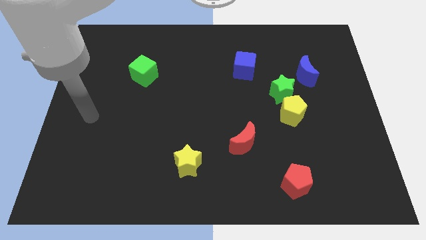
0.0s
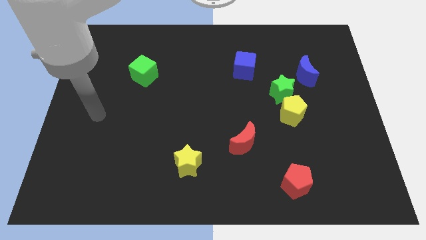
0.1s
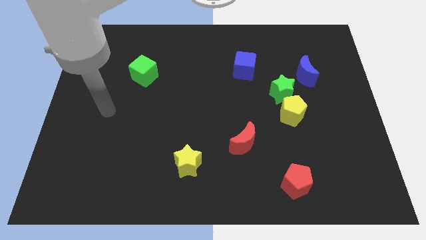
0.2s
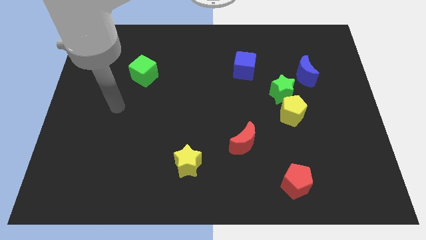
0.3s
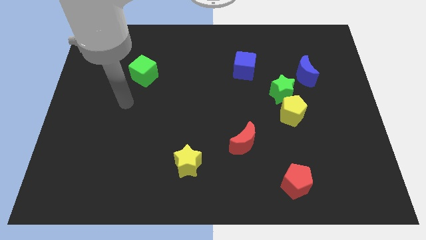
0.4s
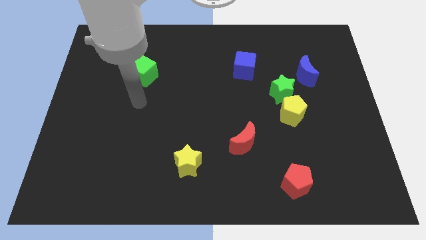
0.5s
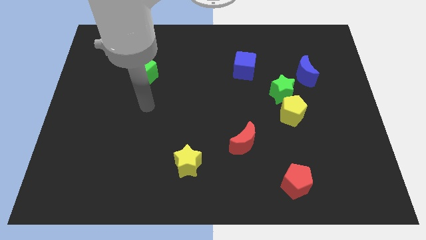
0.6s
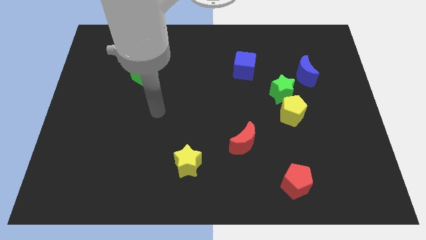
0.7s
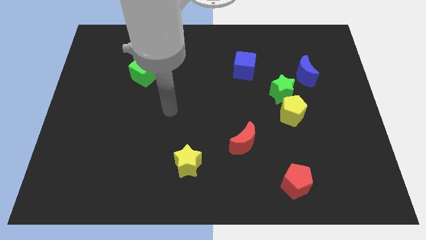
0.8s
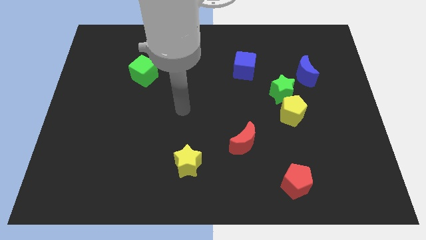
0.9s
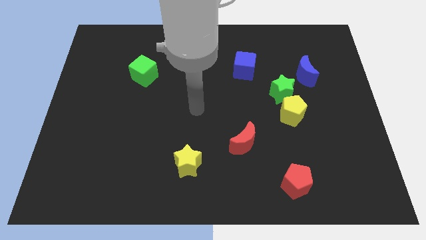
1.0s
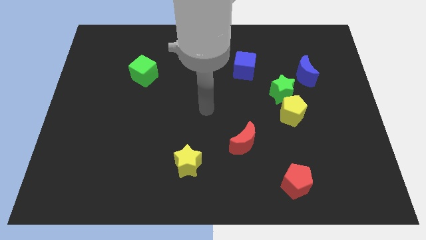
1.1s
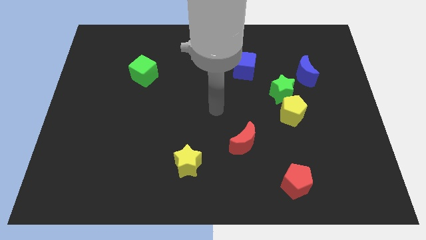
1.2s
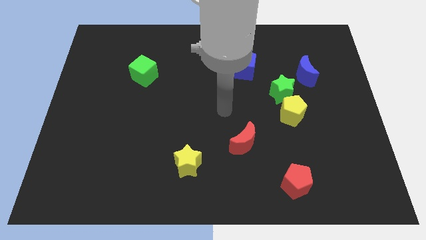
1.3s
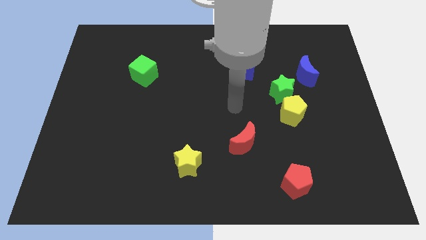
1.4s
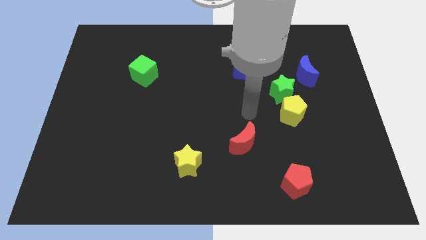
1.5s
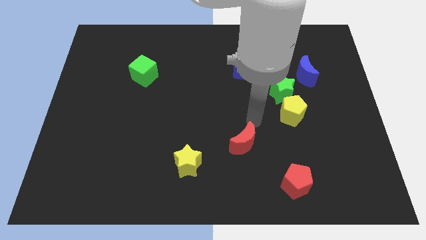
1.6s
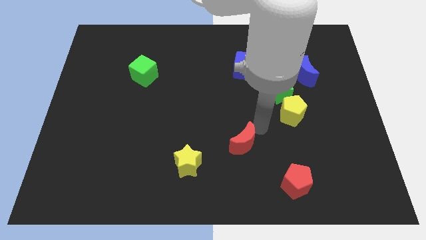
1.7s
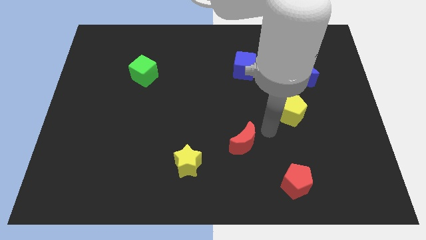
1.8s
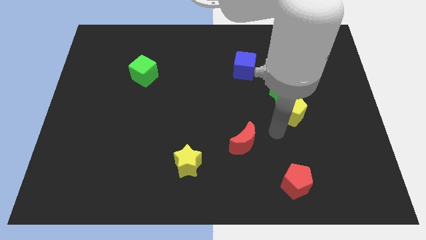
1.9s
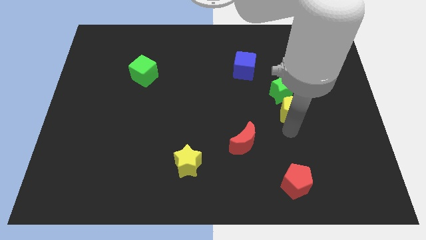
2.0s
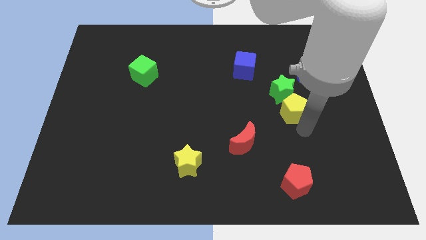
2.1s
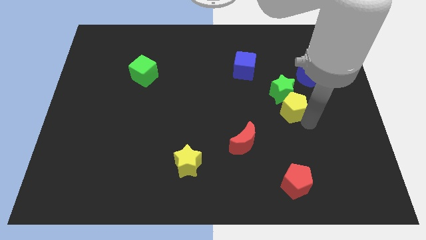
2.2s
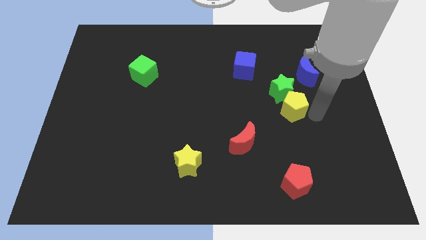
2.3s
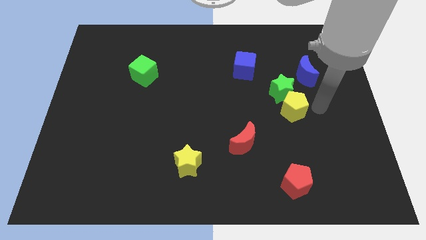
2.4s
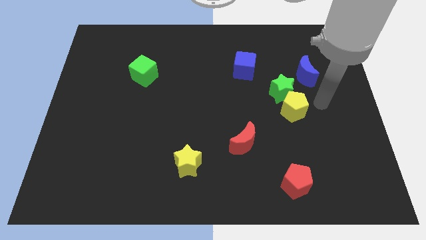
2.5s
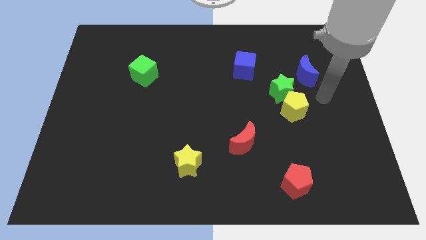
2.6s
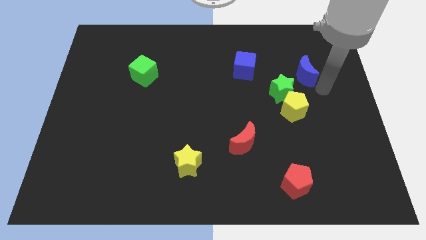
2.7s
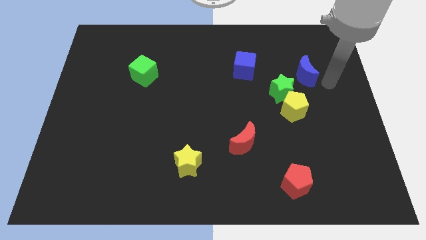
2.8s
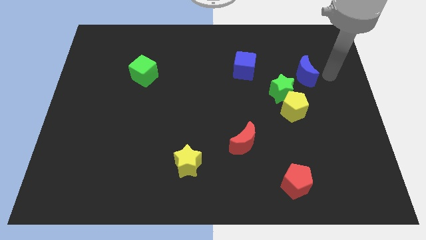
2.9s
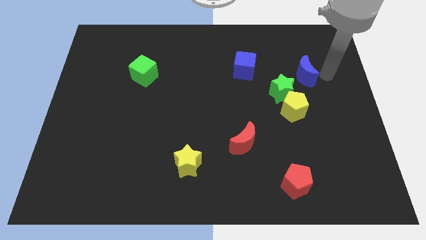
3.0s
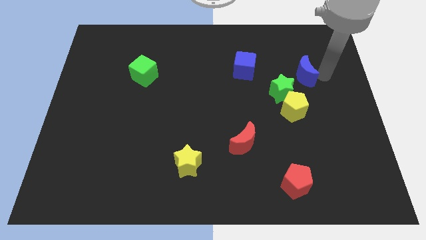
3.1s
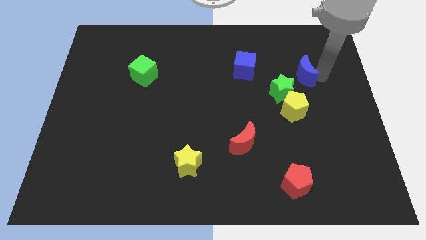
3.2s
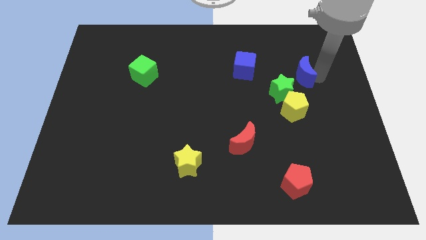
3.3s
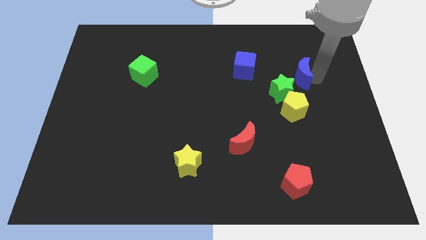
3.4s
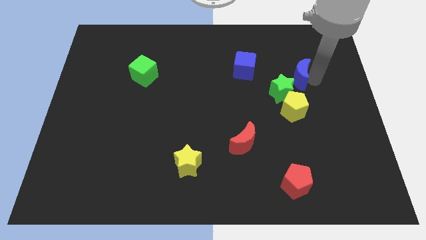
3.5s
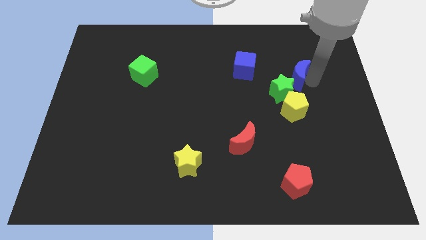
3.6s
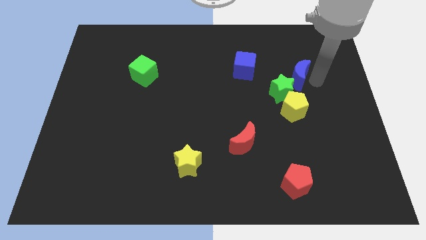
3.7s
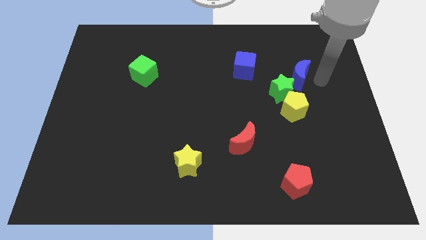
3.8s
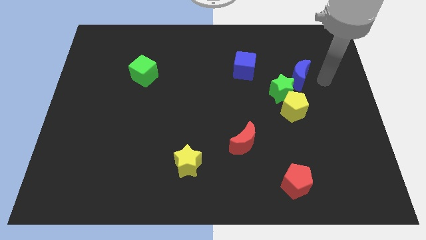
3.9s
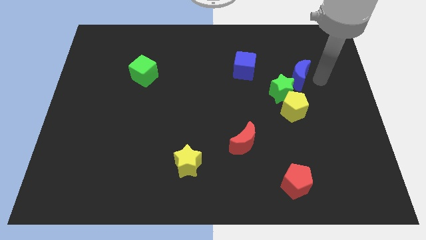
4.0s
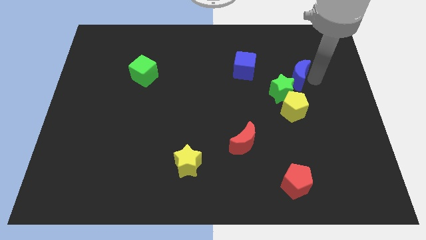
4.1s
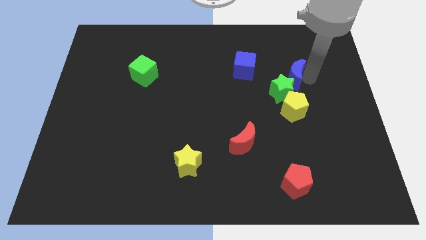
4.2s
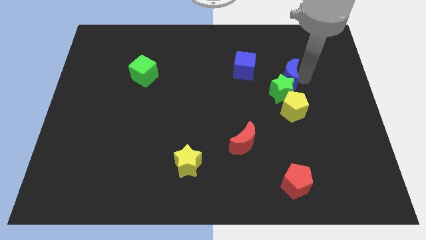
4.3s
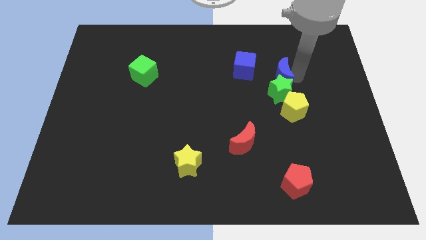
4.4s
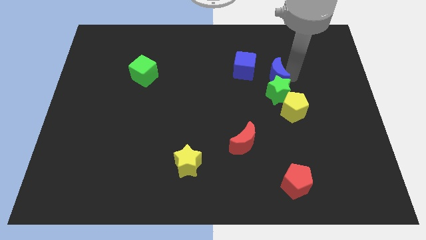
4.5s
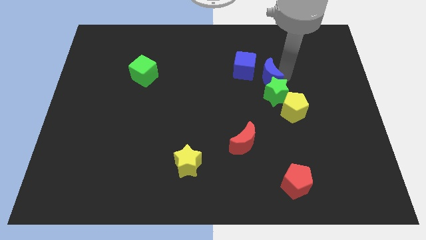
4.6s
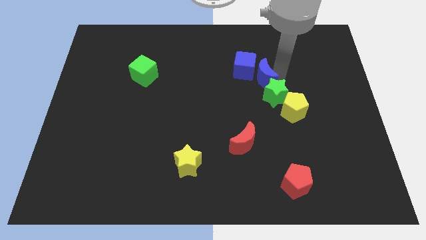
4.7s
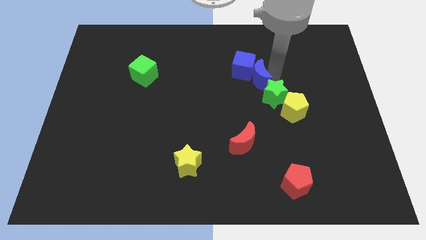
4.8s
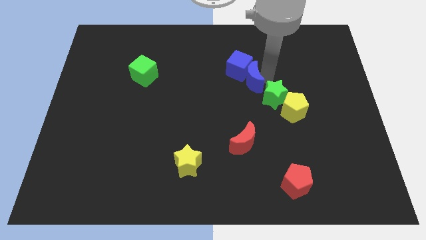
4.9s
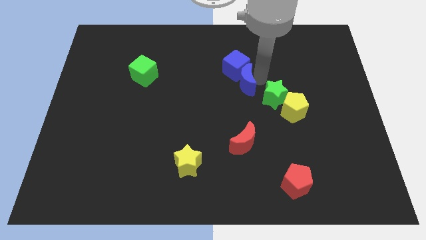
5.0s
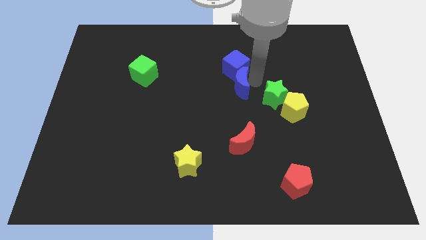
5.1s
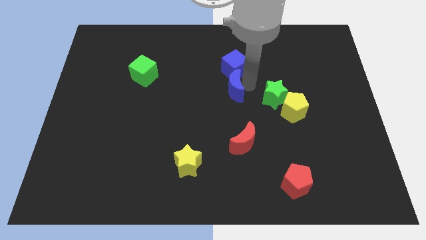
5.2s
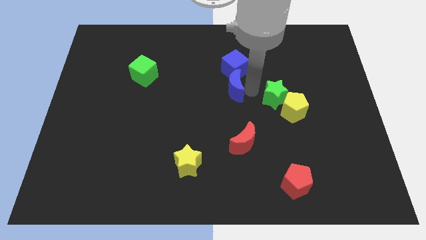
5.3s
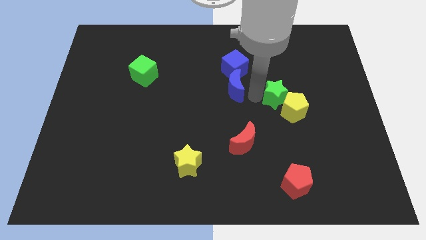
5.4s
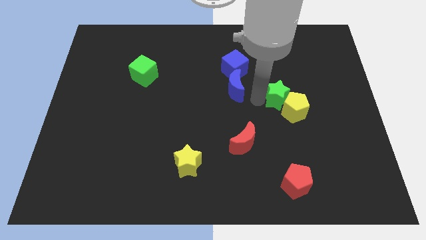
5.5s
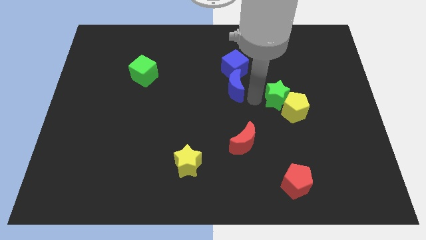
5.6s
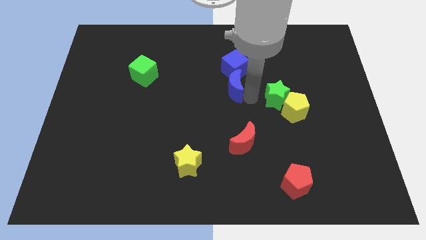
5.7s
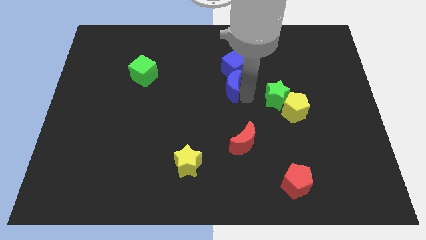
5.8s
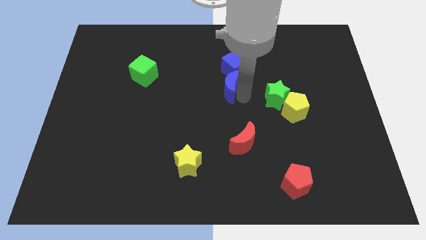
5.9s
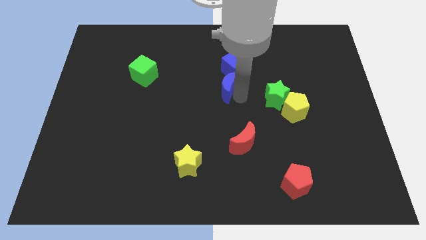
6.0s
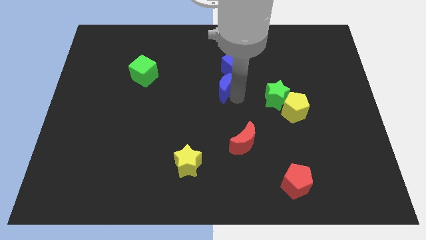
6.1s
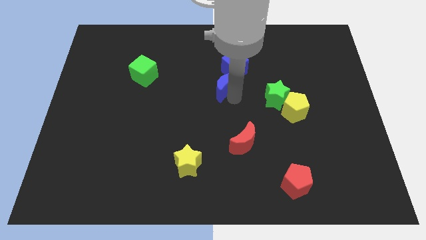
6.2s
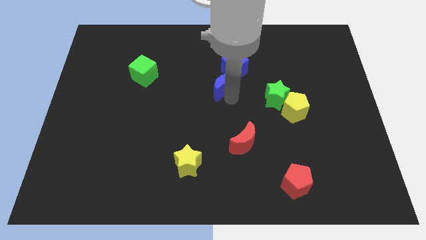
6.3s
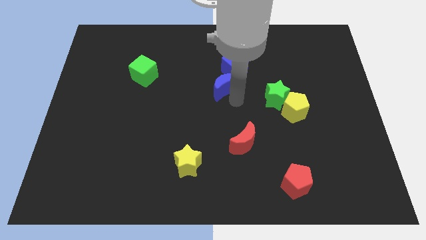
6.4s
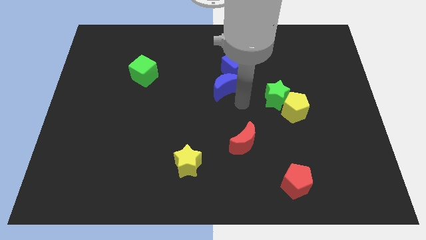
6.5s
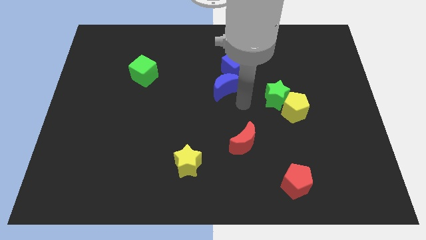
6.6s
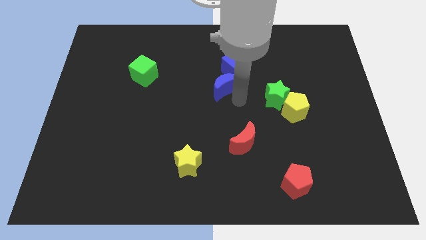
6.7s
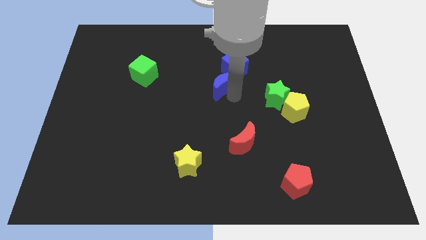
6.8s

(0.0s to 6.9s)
slide the blue moon to the left

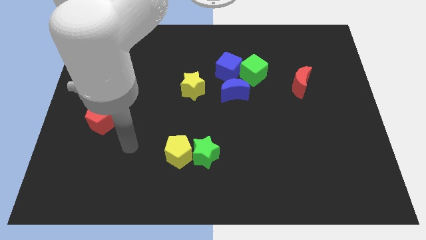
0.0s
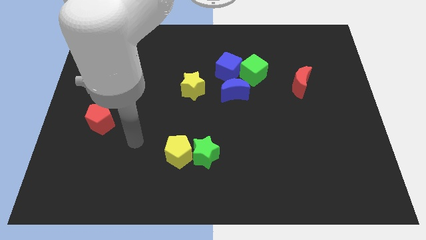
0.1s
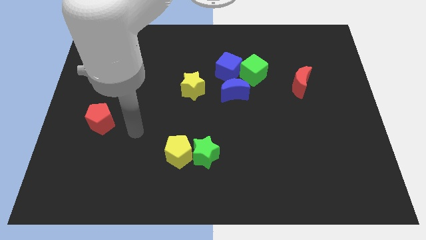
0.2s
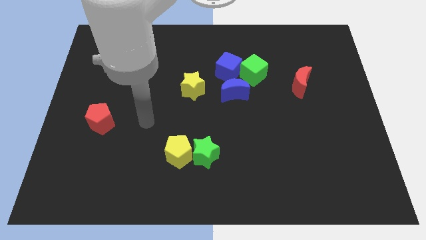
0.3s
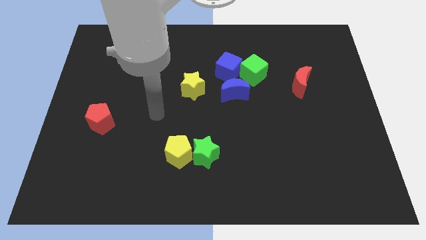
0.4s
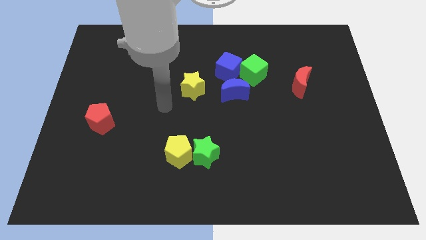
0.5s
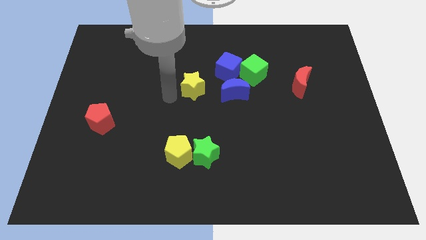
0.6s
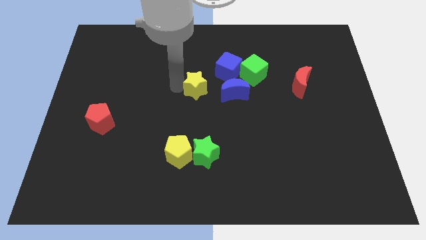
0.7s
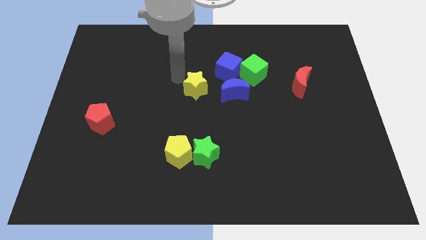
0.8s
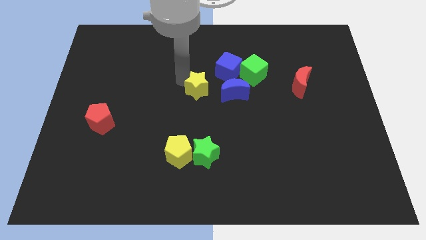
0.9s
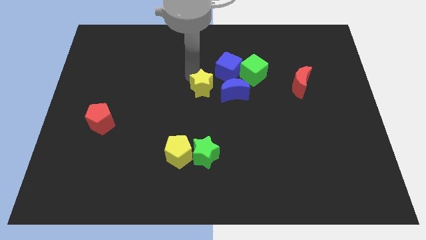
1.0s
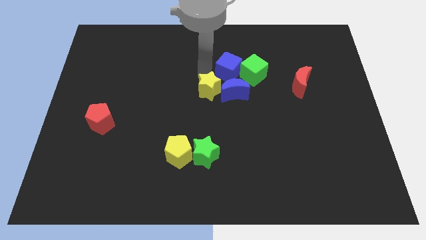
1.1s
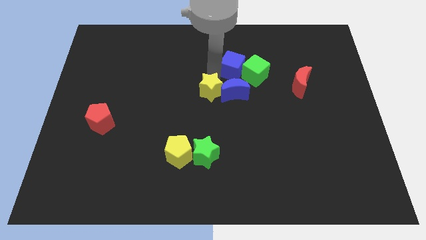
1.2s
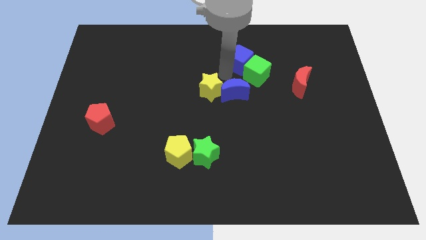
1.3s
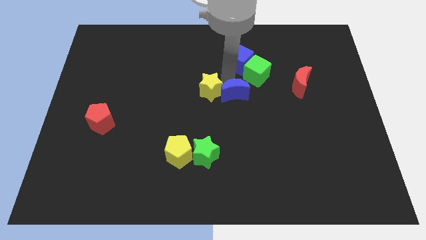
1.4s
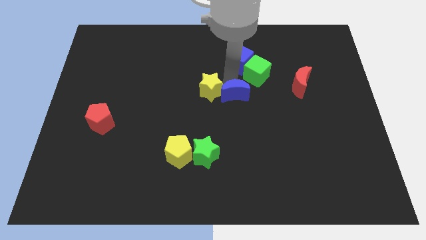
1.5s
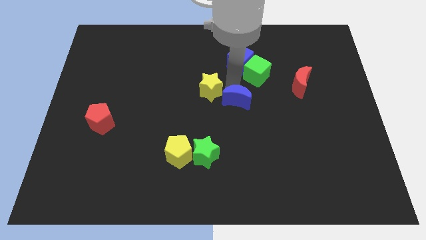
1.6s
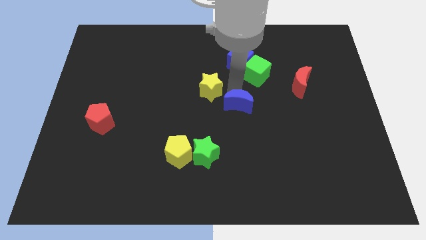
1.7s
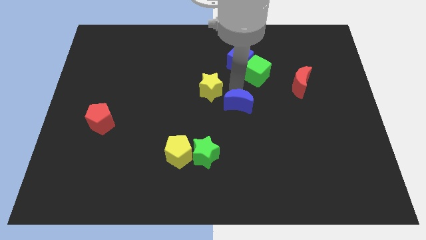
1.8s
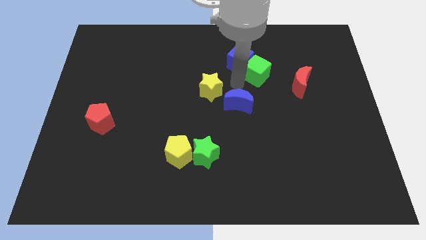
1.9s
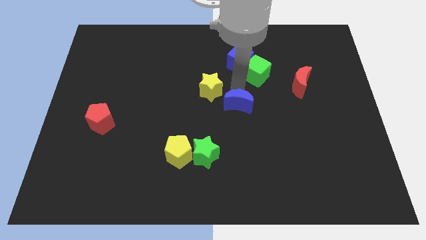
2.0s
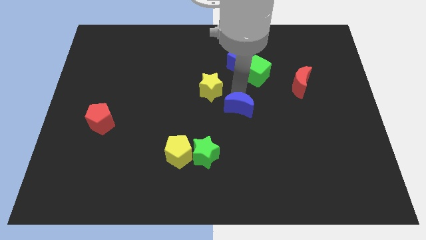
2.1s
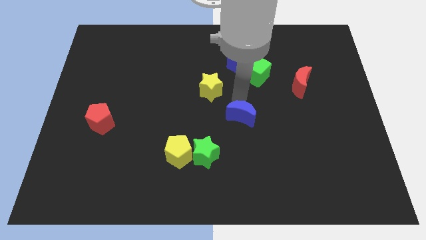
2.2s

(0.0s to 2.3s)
slightly move the blue moon downwards
